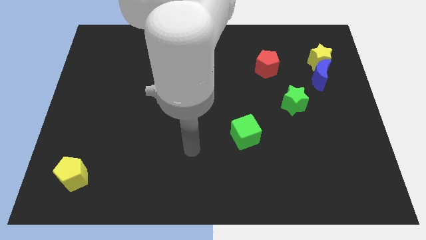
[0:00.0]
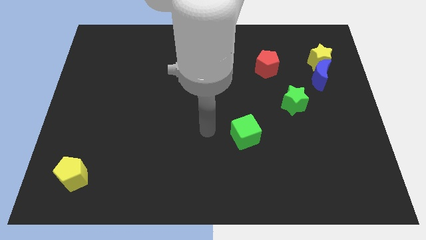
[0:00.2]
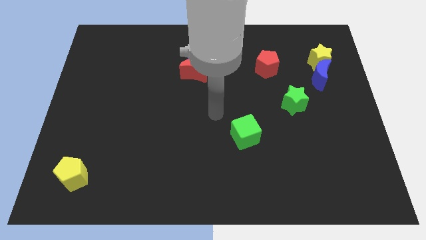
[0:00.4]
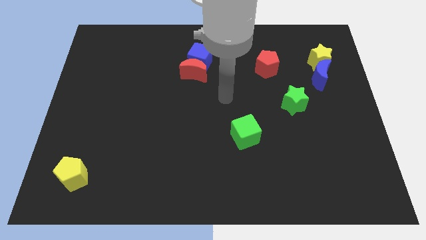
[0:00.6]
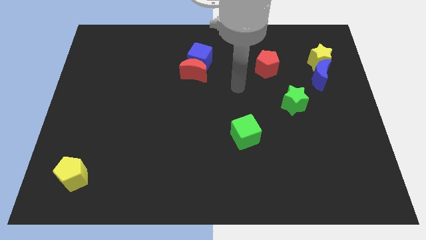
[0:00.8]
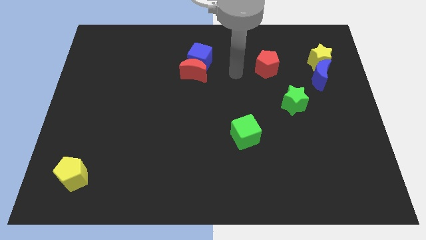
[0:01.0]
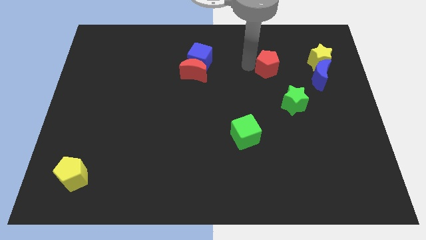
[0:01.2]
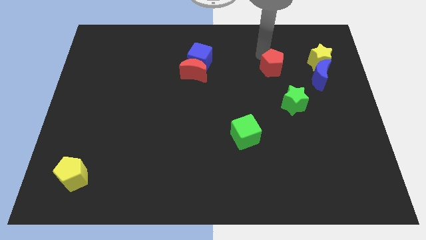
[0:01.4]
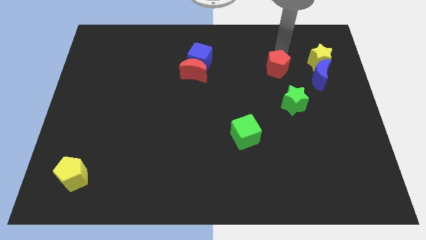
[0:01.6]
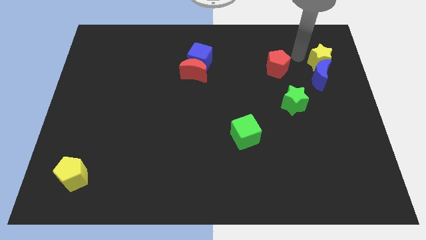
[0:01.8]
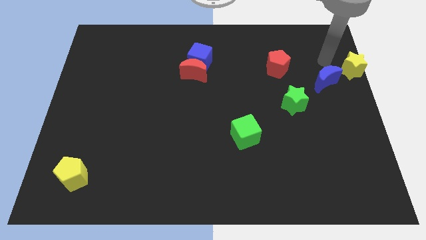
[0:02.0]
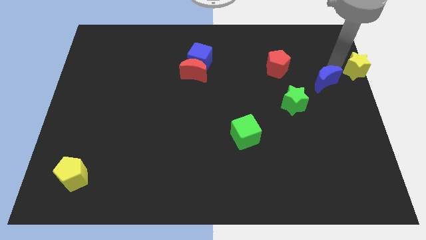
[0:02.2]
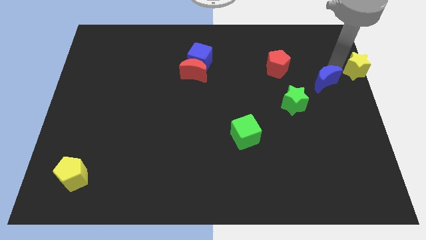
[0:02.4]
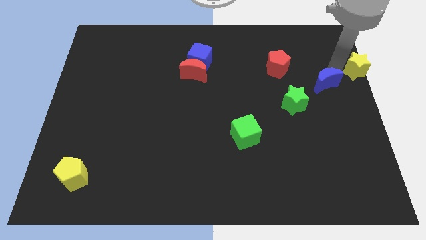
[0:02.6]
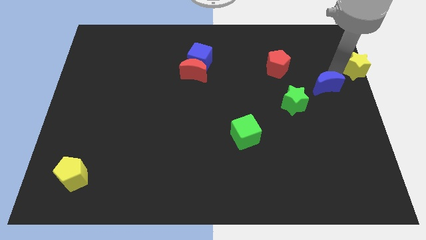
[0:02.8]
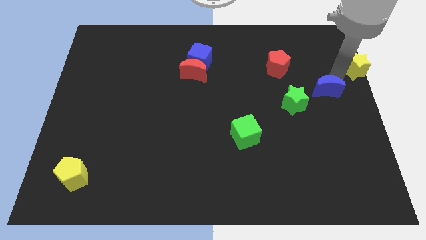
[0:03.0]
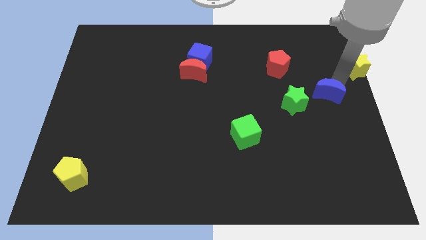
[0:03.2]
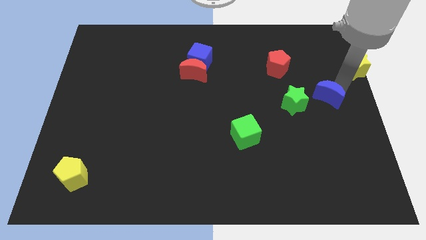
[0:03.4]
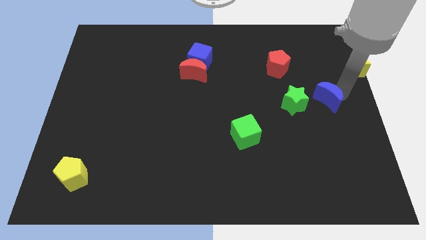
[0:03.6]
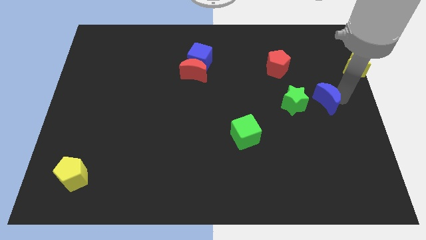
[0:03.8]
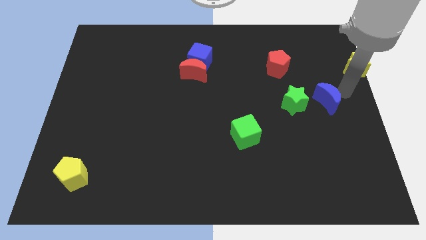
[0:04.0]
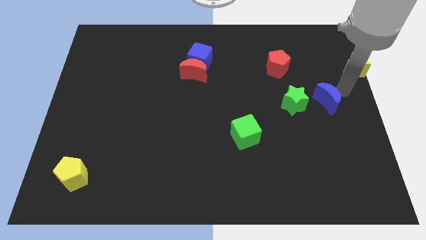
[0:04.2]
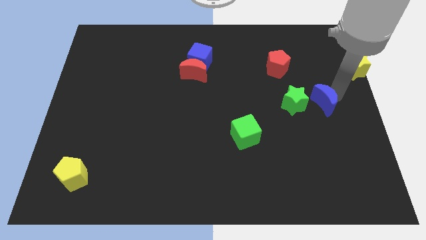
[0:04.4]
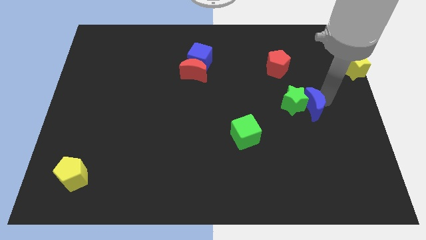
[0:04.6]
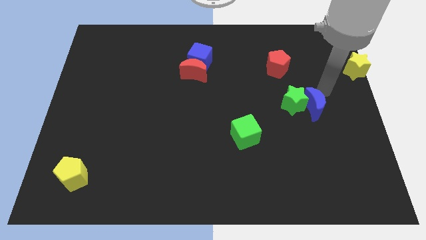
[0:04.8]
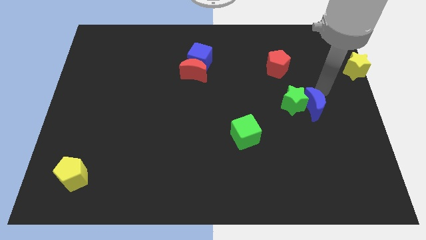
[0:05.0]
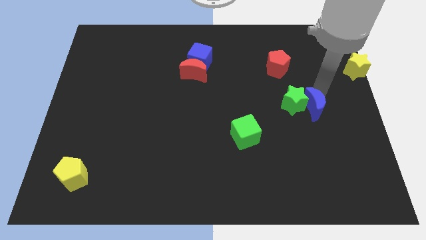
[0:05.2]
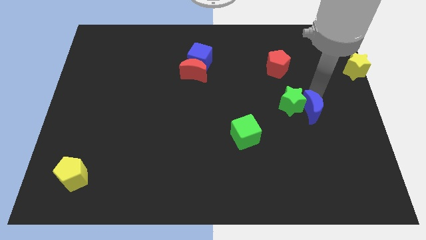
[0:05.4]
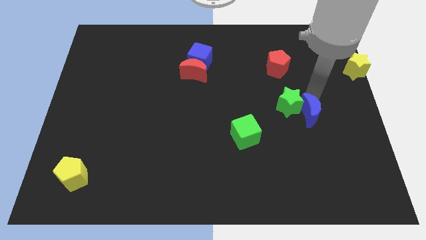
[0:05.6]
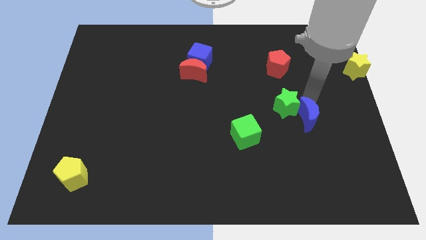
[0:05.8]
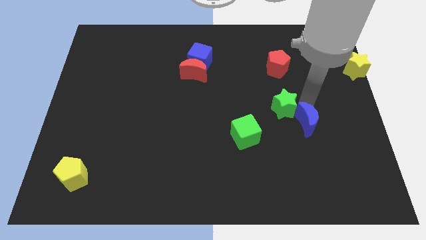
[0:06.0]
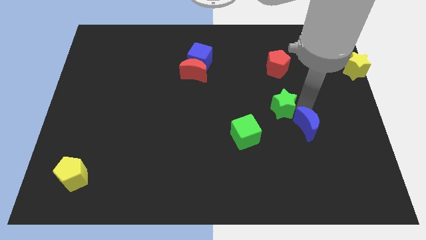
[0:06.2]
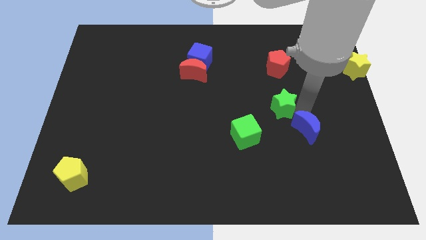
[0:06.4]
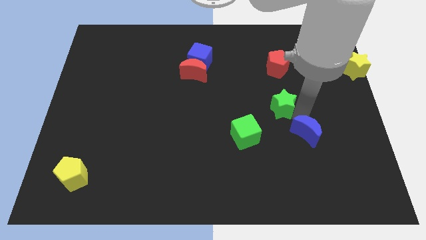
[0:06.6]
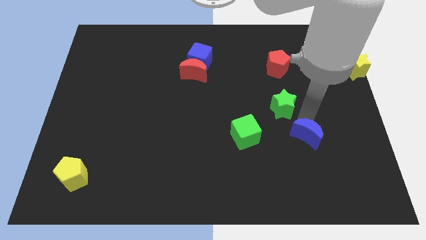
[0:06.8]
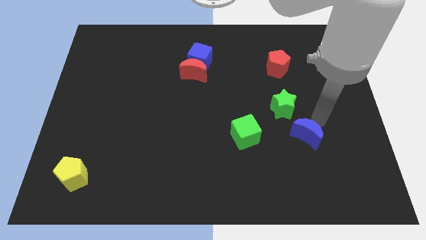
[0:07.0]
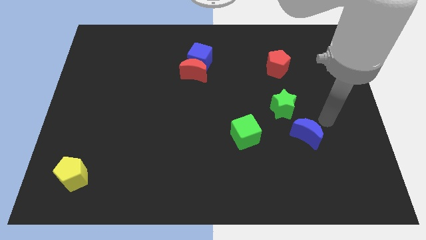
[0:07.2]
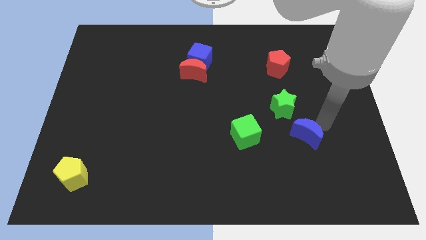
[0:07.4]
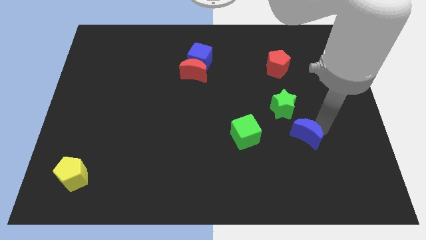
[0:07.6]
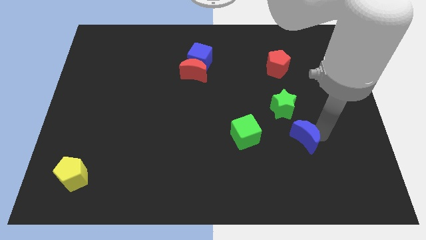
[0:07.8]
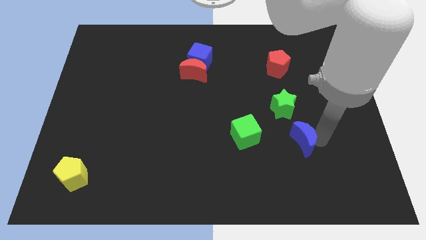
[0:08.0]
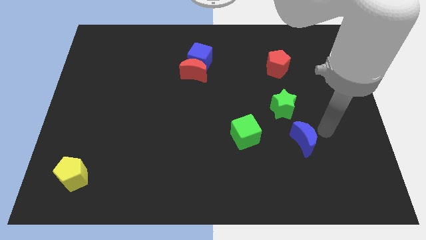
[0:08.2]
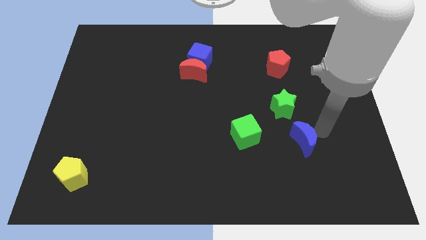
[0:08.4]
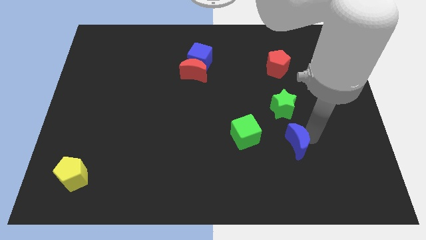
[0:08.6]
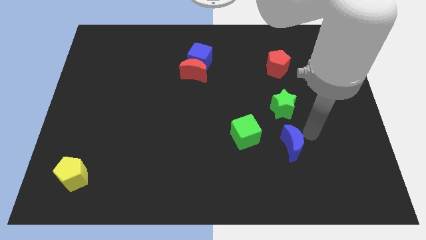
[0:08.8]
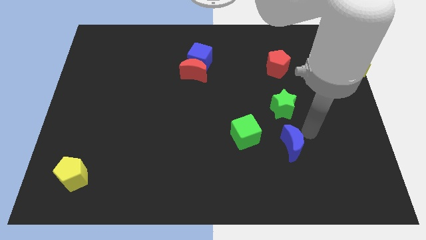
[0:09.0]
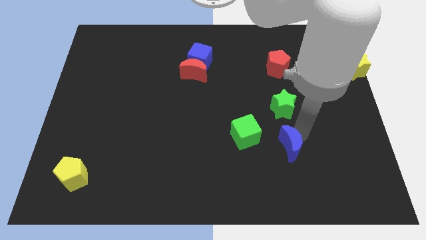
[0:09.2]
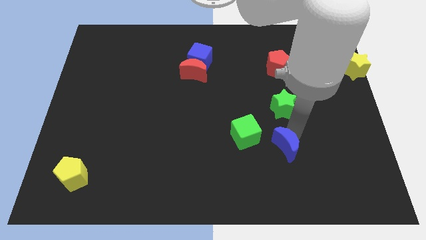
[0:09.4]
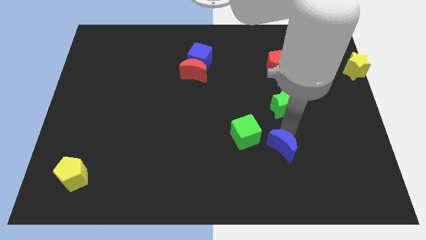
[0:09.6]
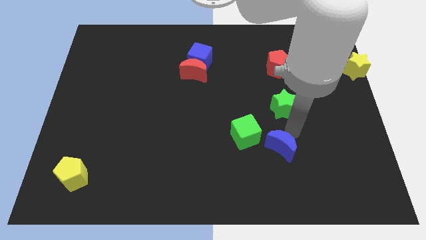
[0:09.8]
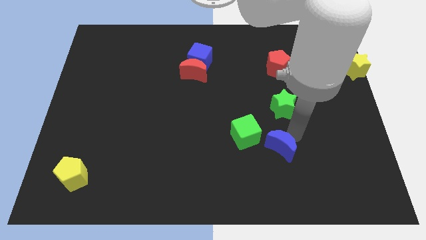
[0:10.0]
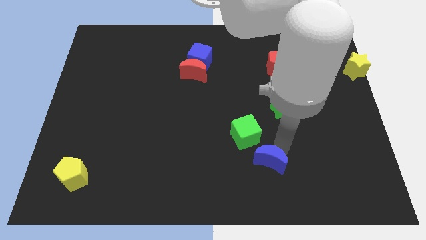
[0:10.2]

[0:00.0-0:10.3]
put the blue moon below the green cube

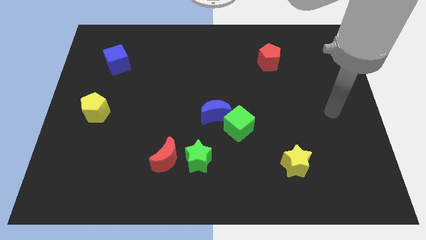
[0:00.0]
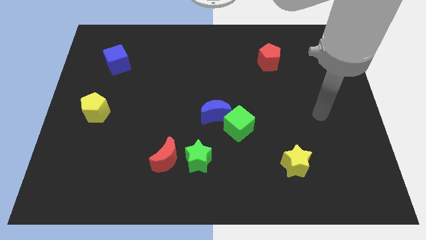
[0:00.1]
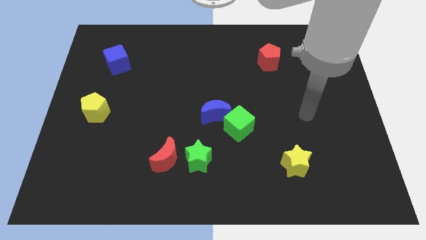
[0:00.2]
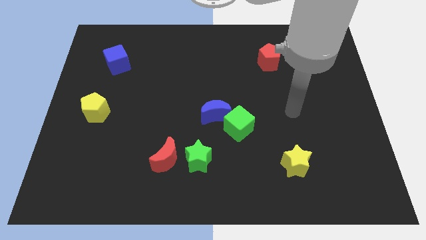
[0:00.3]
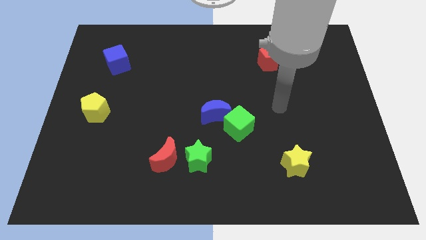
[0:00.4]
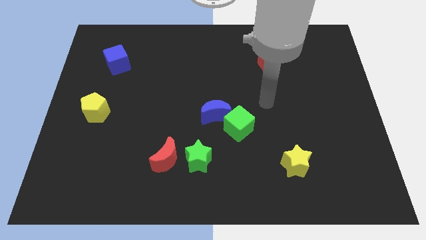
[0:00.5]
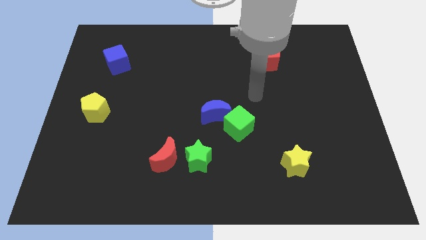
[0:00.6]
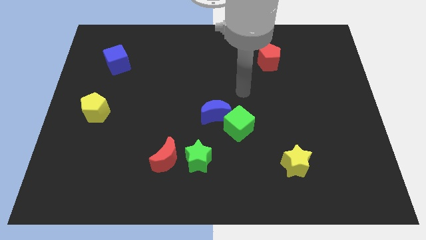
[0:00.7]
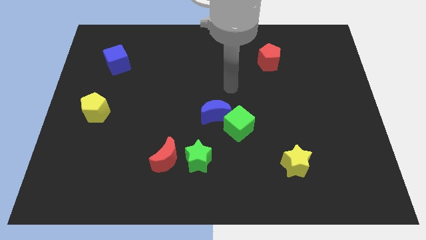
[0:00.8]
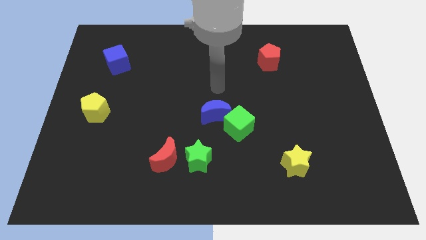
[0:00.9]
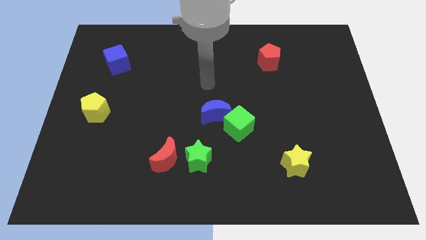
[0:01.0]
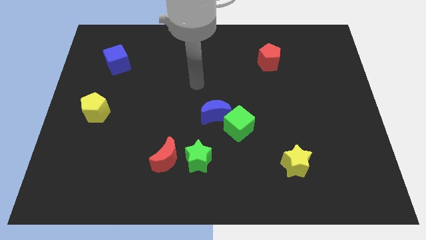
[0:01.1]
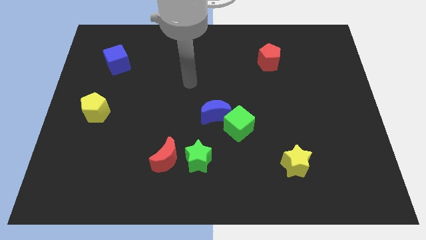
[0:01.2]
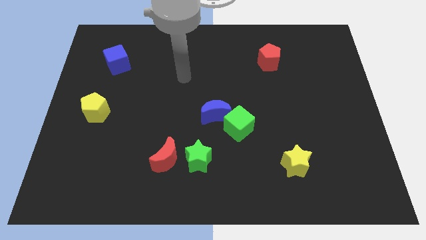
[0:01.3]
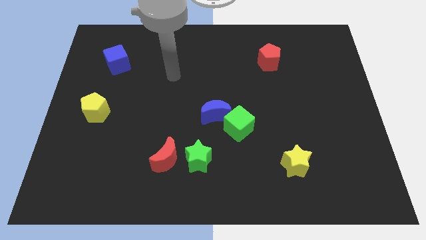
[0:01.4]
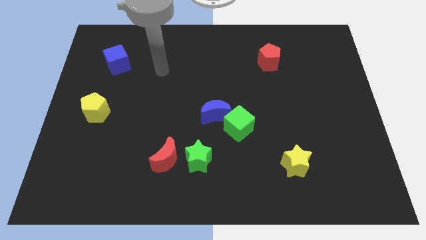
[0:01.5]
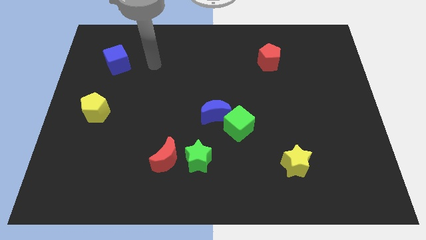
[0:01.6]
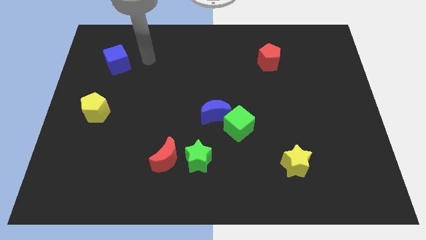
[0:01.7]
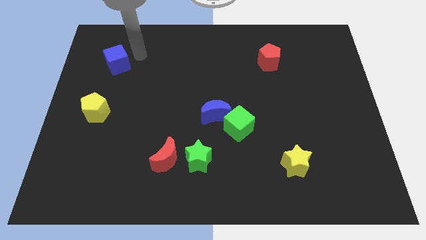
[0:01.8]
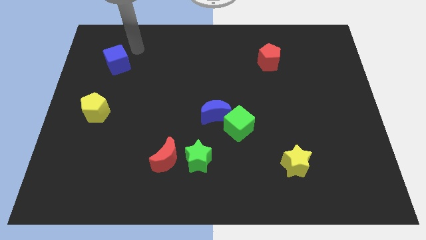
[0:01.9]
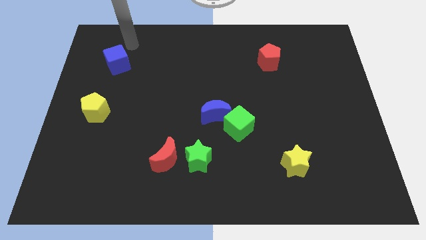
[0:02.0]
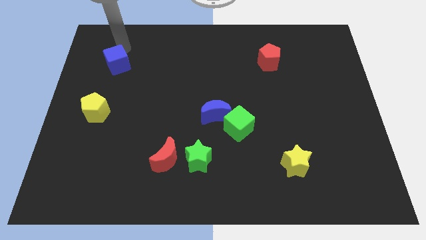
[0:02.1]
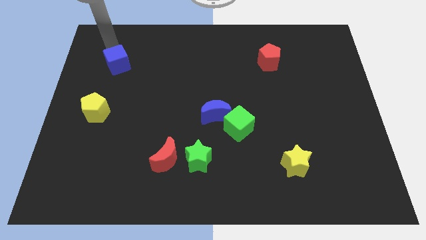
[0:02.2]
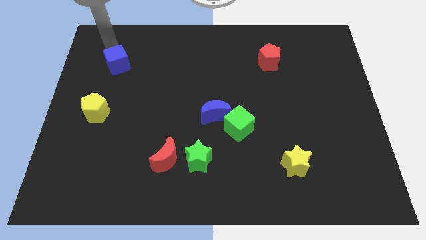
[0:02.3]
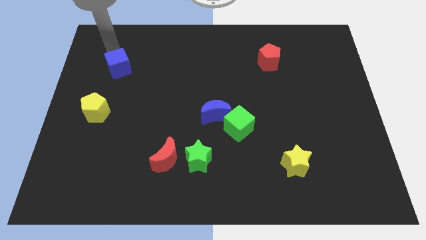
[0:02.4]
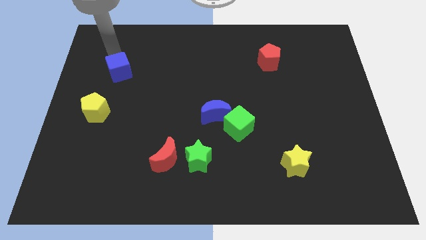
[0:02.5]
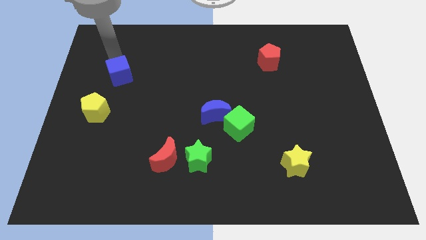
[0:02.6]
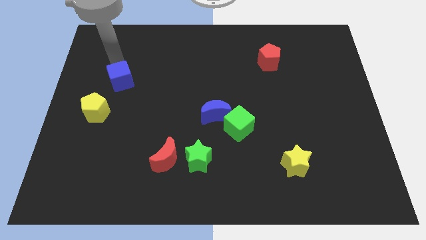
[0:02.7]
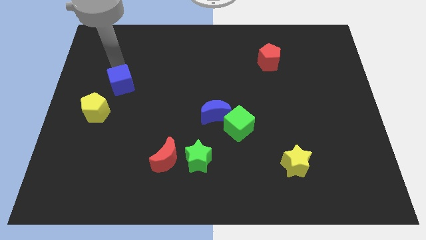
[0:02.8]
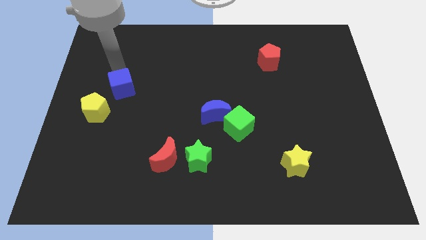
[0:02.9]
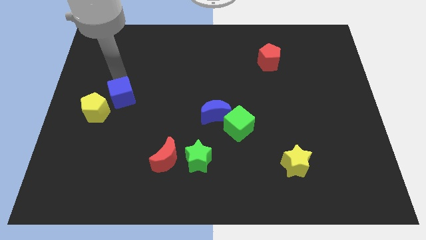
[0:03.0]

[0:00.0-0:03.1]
move the blue cube to the right side of the yellow pentagon
